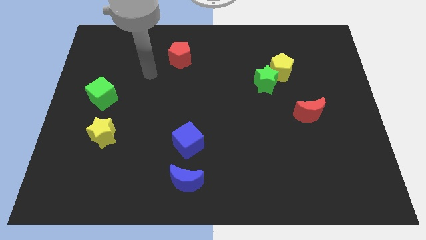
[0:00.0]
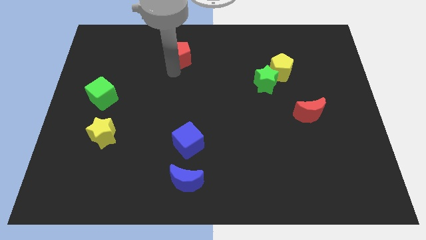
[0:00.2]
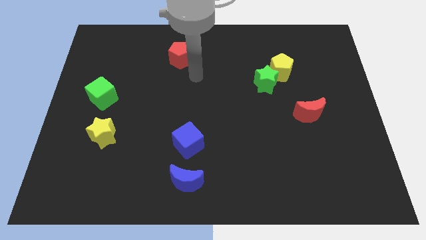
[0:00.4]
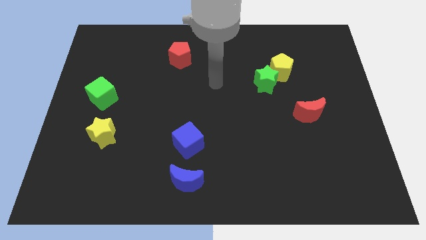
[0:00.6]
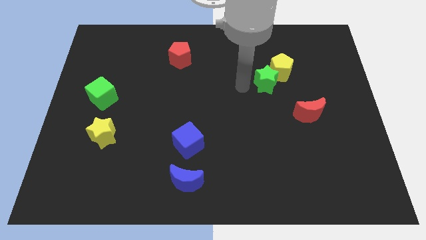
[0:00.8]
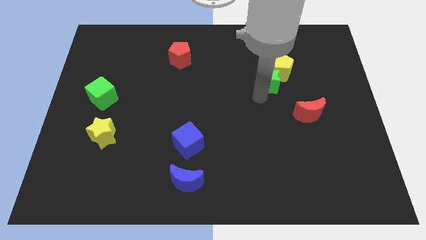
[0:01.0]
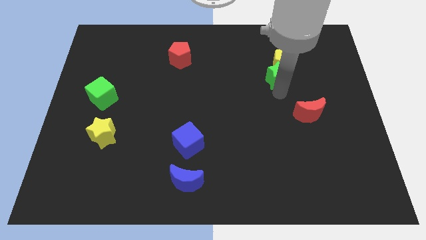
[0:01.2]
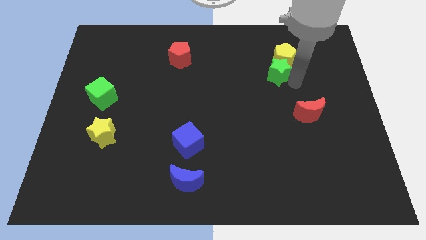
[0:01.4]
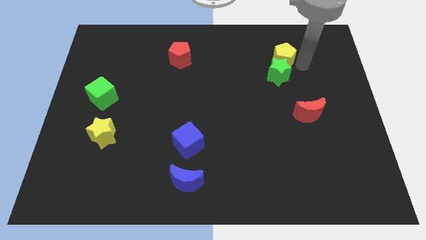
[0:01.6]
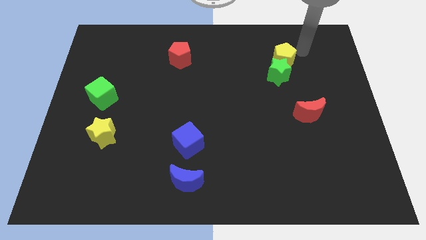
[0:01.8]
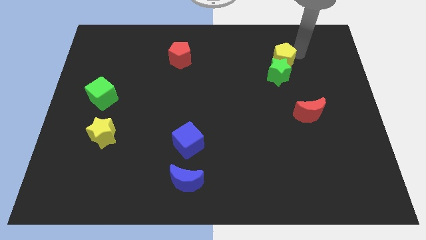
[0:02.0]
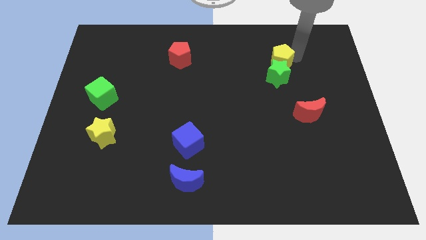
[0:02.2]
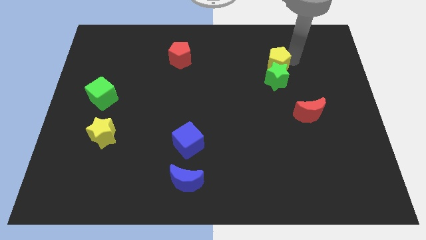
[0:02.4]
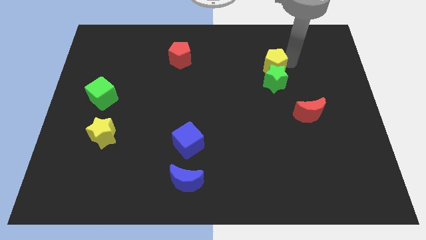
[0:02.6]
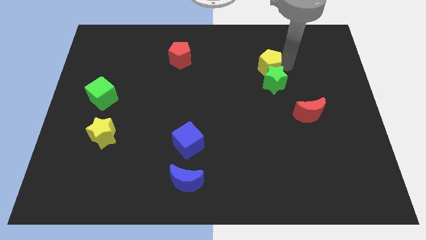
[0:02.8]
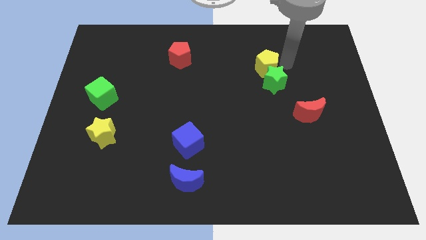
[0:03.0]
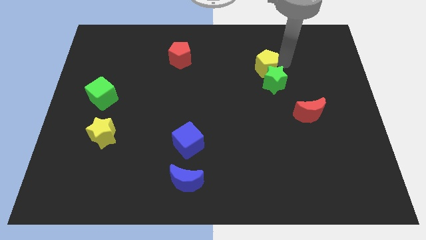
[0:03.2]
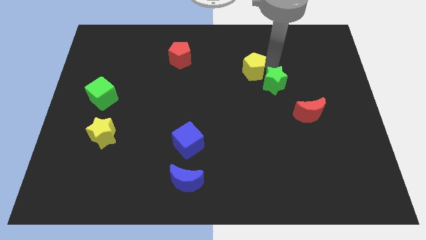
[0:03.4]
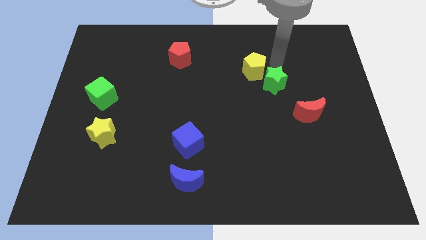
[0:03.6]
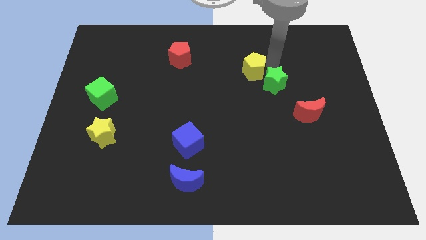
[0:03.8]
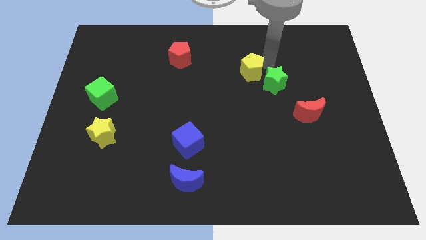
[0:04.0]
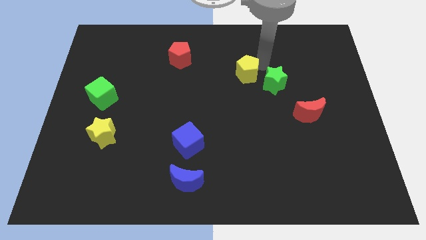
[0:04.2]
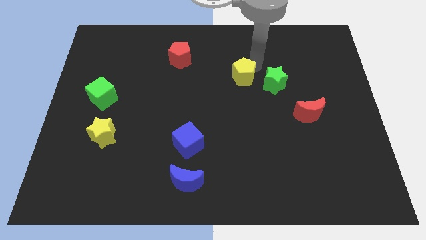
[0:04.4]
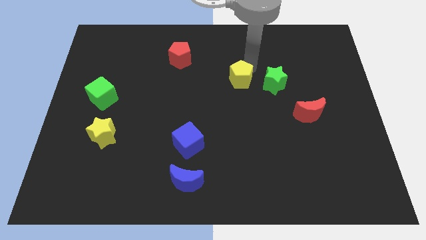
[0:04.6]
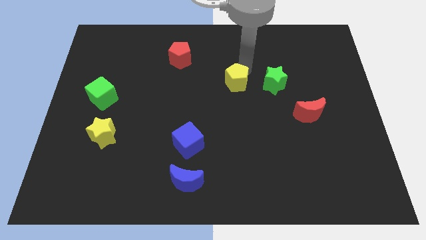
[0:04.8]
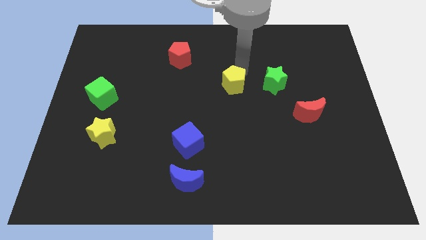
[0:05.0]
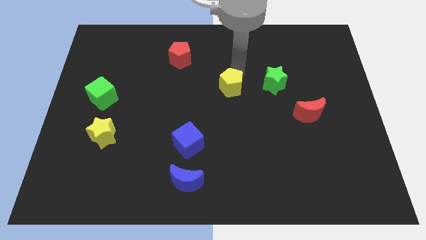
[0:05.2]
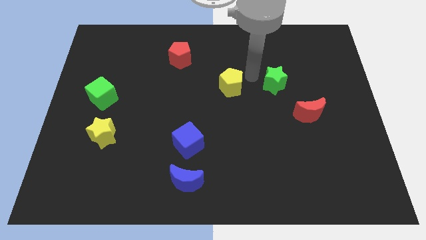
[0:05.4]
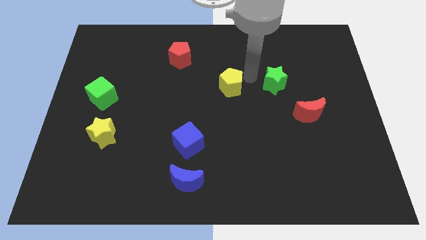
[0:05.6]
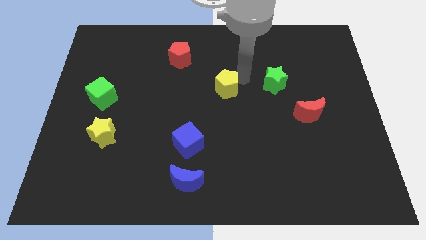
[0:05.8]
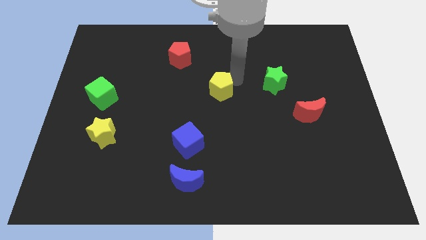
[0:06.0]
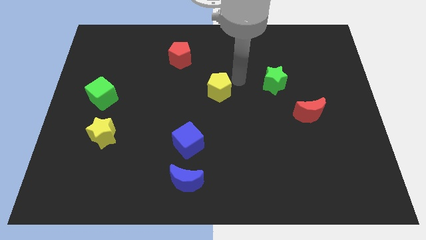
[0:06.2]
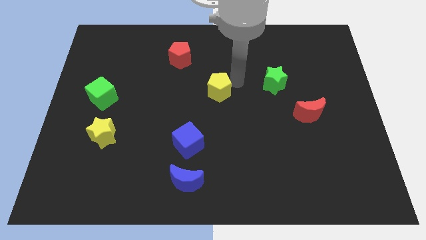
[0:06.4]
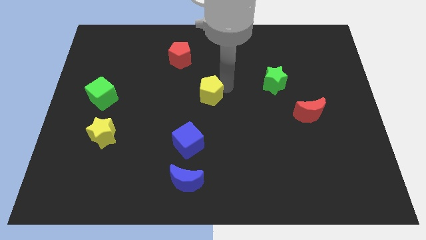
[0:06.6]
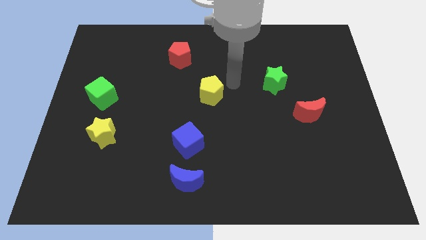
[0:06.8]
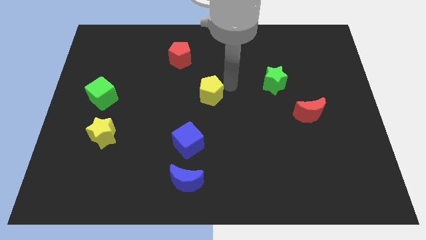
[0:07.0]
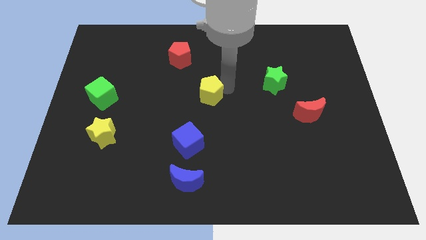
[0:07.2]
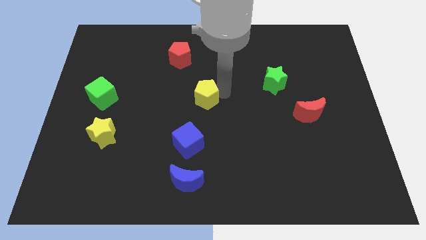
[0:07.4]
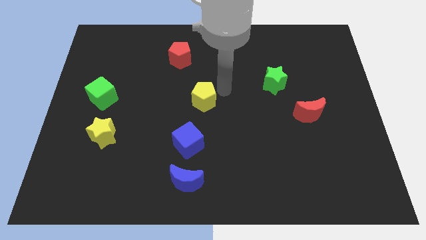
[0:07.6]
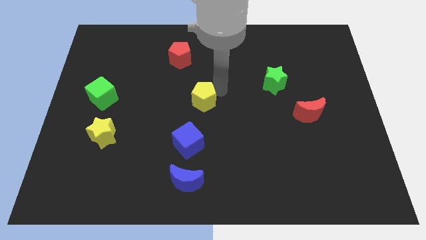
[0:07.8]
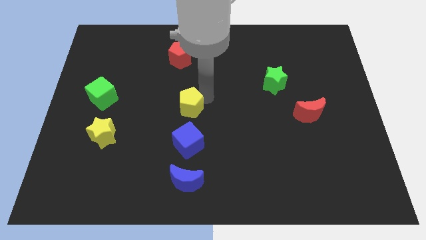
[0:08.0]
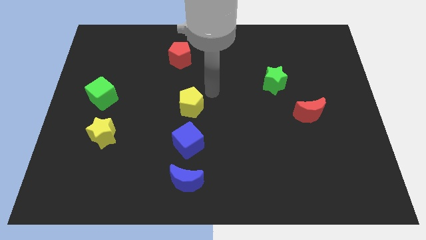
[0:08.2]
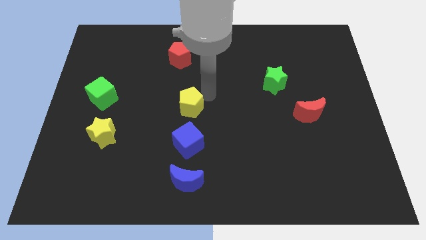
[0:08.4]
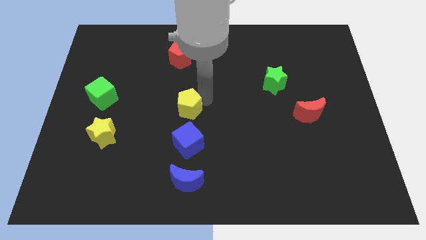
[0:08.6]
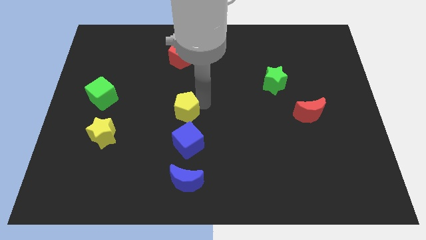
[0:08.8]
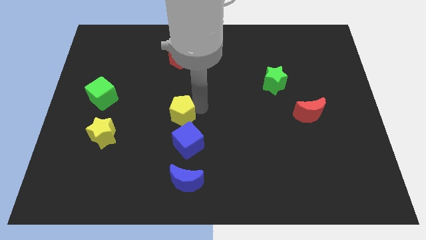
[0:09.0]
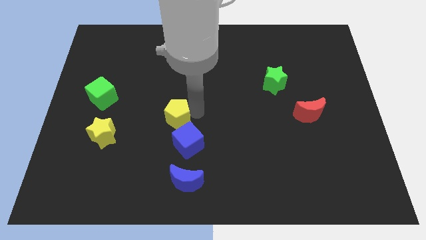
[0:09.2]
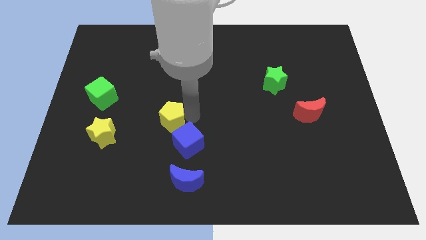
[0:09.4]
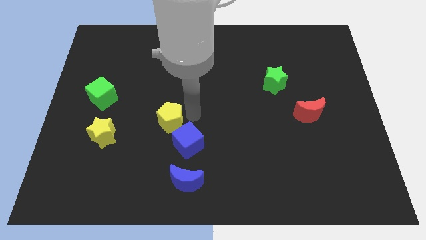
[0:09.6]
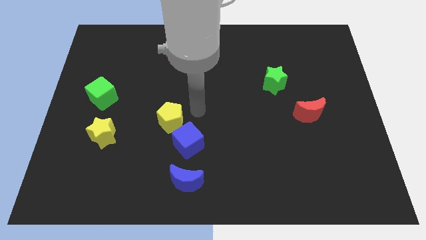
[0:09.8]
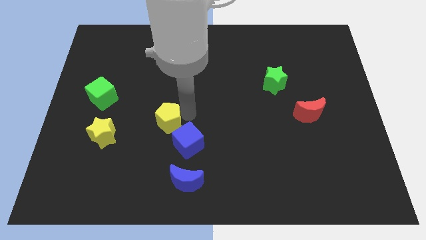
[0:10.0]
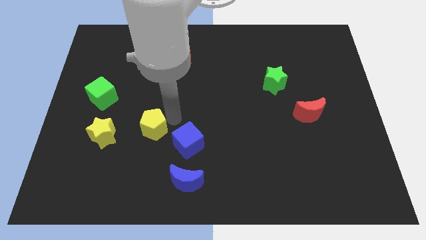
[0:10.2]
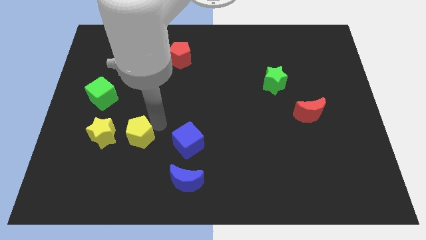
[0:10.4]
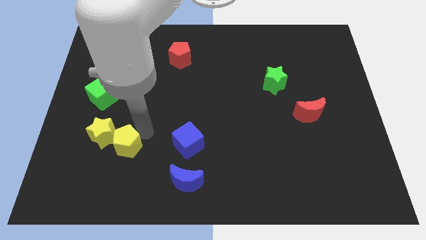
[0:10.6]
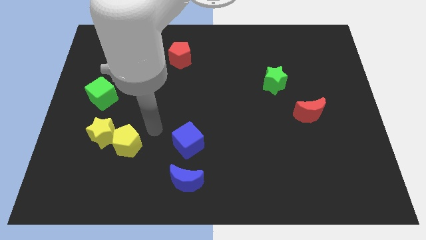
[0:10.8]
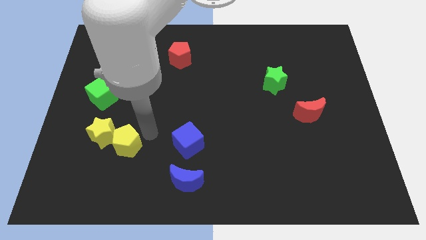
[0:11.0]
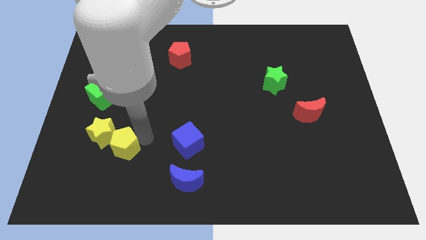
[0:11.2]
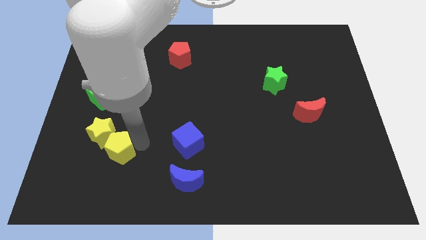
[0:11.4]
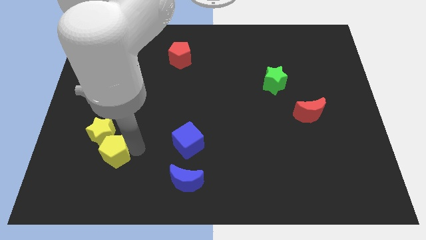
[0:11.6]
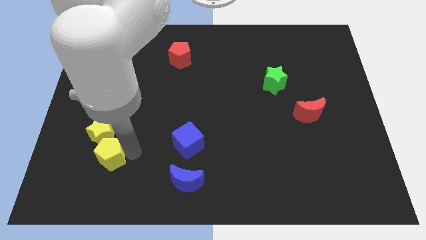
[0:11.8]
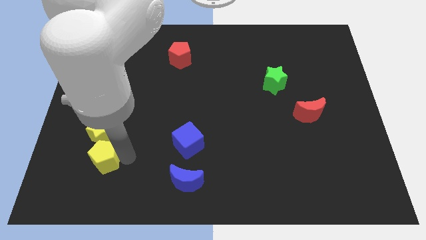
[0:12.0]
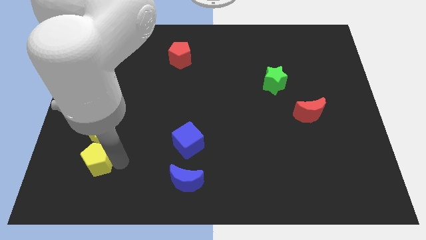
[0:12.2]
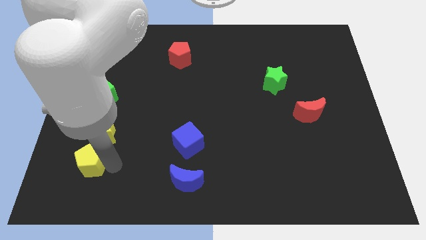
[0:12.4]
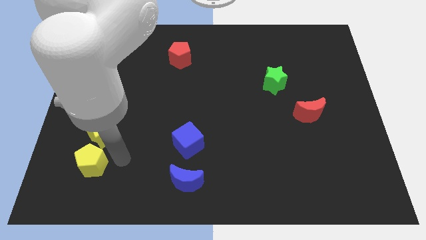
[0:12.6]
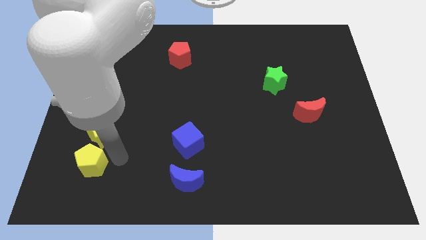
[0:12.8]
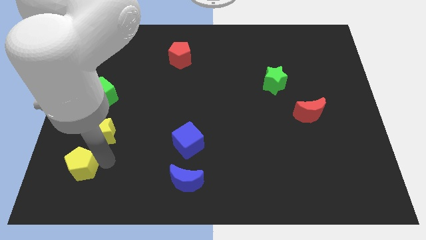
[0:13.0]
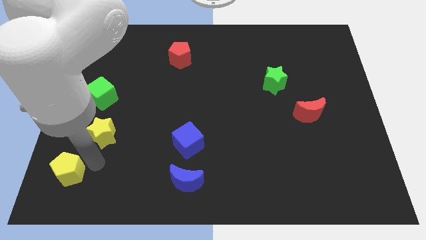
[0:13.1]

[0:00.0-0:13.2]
push the yellow pentagon to the lower left corner

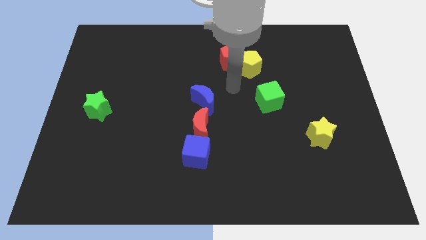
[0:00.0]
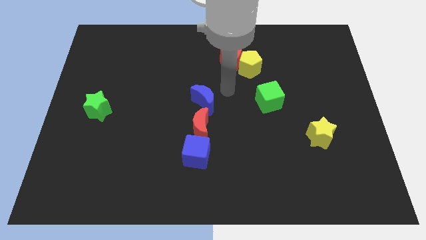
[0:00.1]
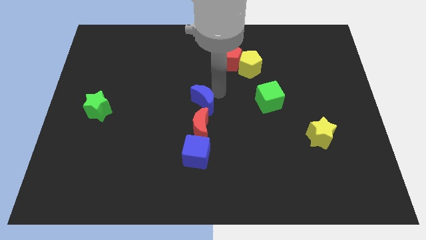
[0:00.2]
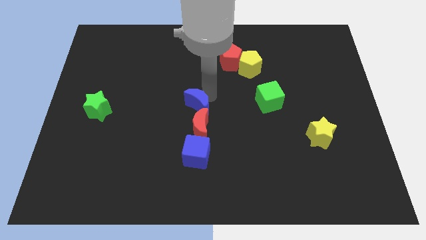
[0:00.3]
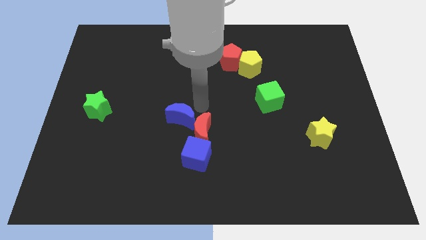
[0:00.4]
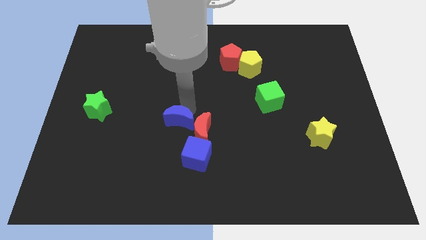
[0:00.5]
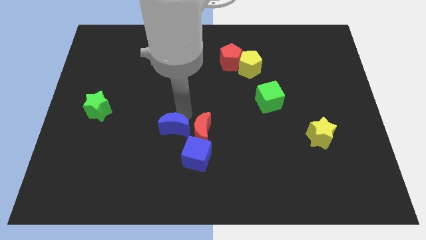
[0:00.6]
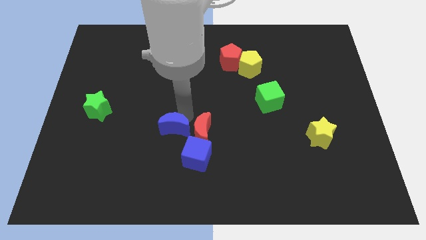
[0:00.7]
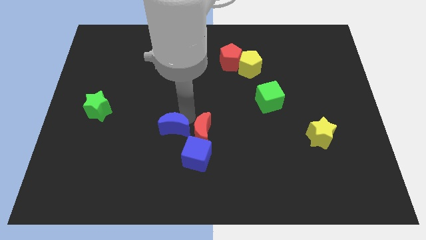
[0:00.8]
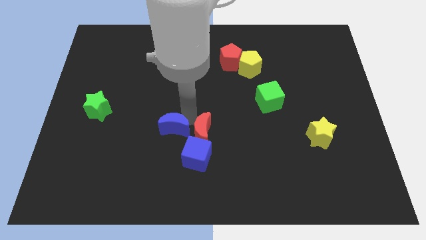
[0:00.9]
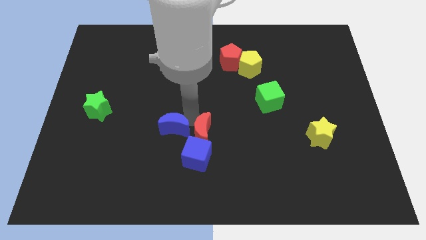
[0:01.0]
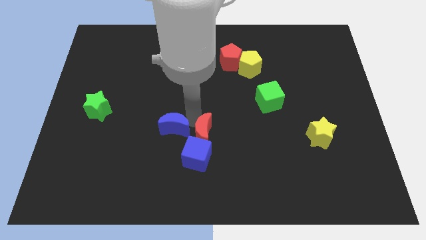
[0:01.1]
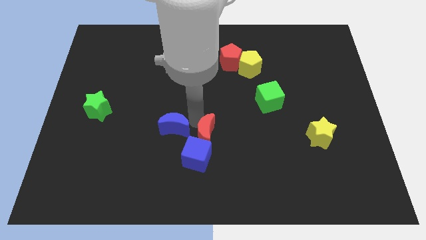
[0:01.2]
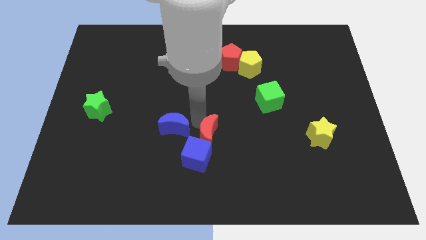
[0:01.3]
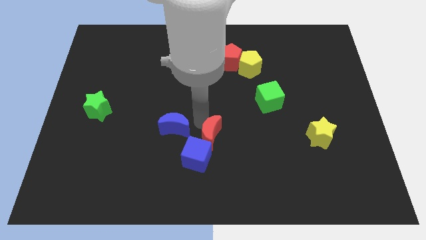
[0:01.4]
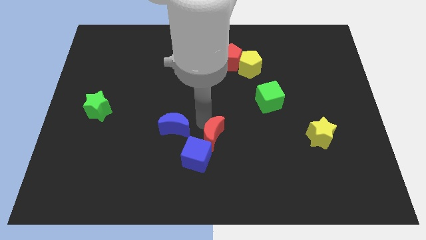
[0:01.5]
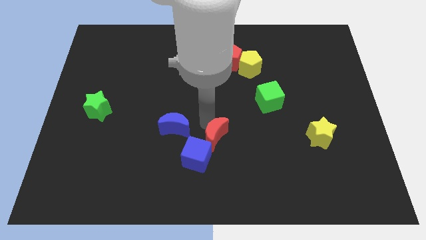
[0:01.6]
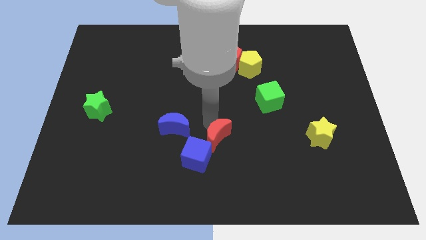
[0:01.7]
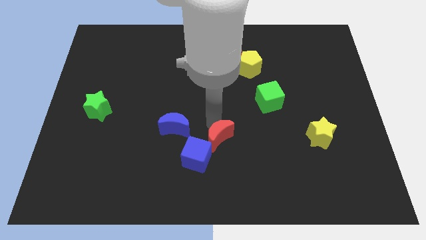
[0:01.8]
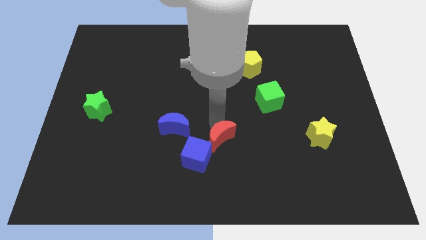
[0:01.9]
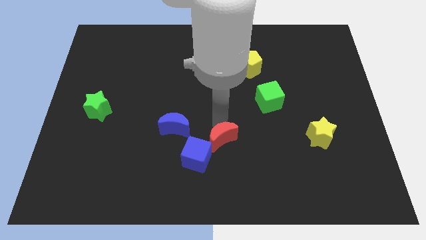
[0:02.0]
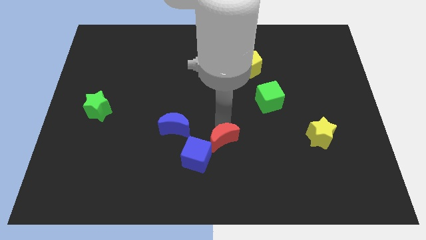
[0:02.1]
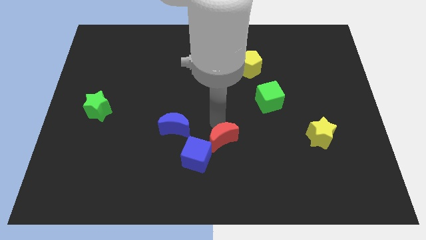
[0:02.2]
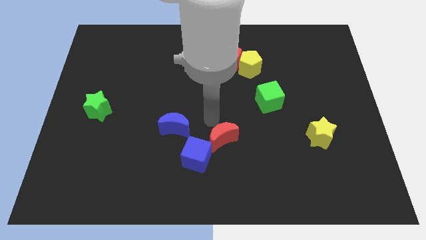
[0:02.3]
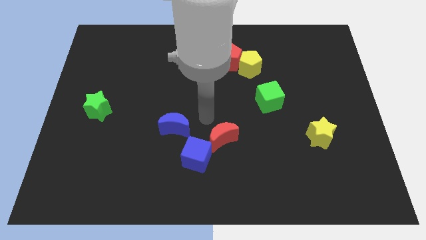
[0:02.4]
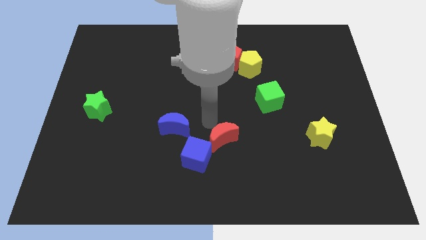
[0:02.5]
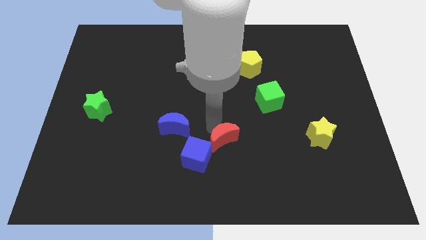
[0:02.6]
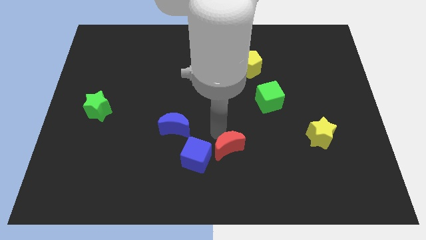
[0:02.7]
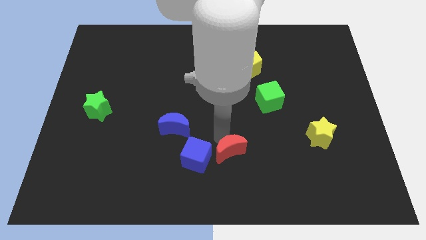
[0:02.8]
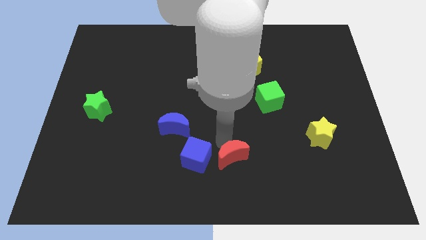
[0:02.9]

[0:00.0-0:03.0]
move the red moon to the bottom
